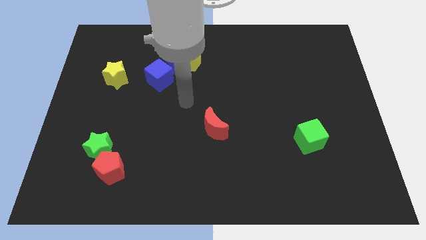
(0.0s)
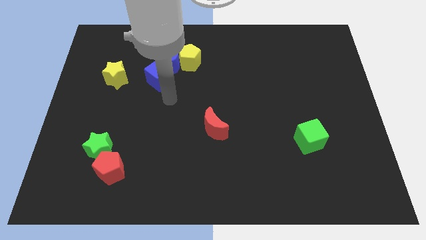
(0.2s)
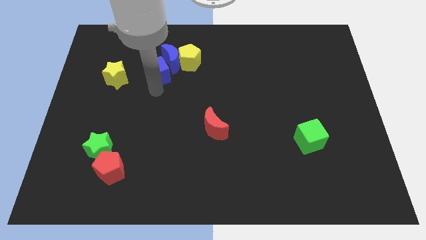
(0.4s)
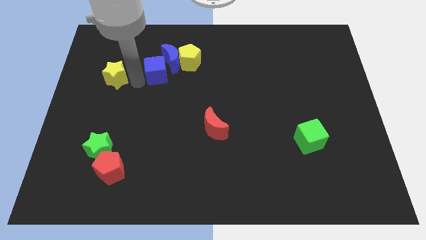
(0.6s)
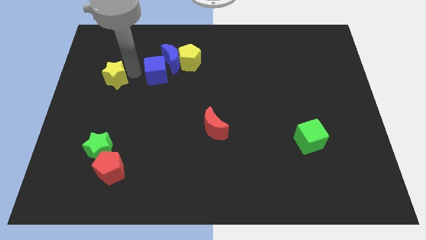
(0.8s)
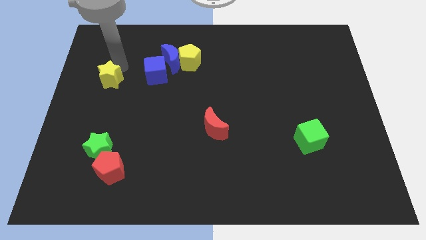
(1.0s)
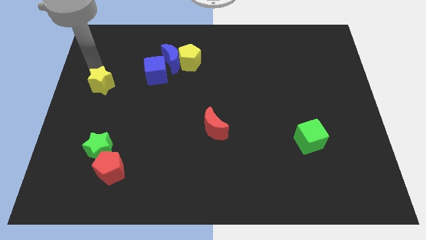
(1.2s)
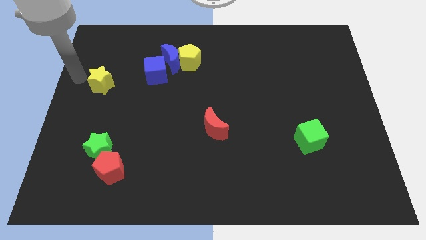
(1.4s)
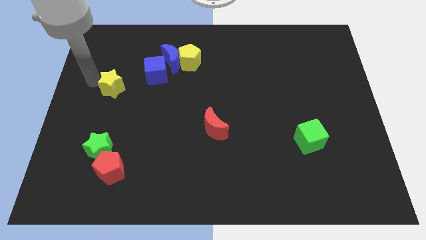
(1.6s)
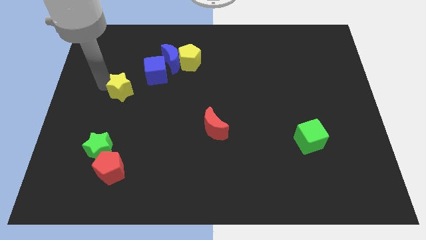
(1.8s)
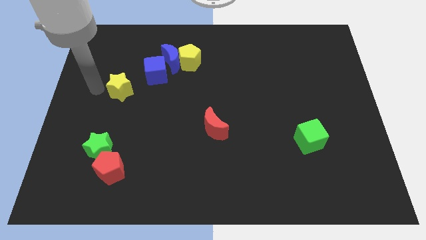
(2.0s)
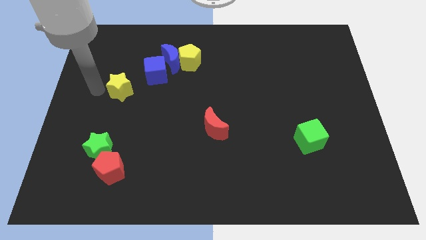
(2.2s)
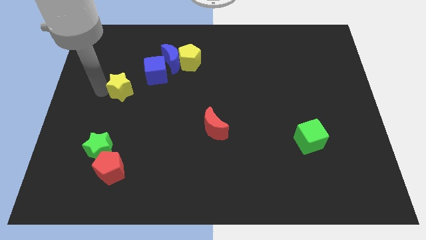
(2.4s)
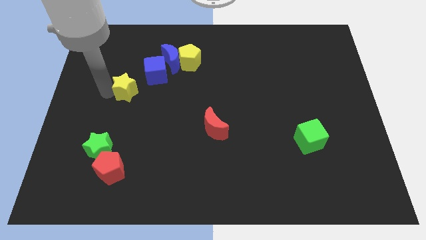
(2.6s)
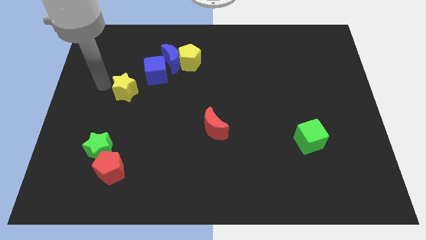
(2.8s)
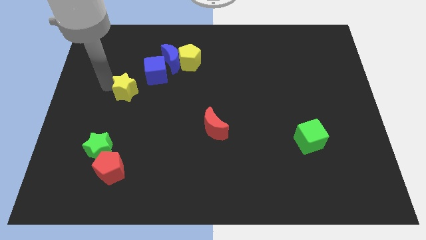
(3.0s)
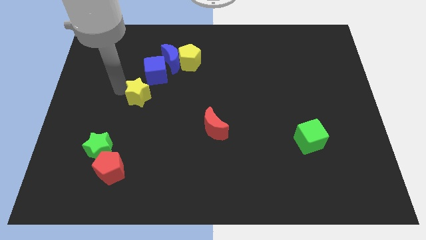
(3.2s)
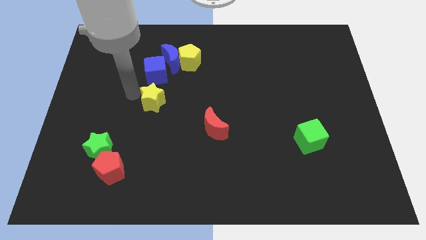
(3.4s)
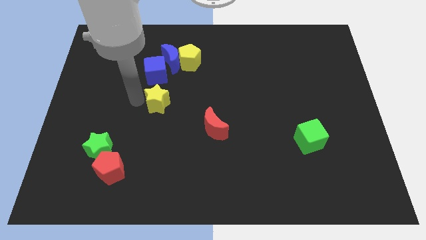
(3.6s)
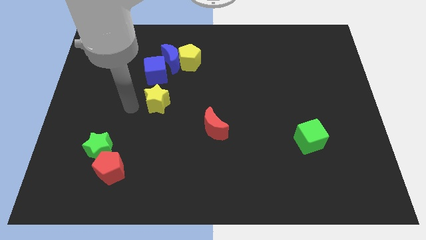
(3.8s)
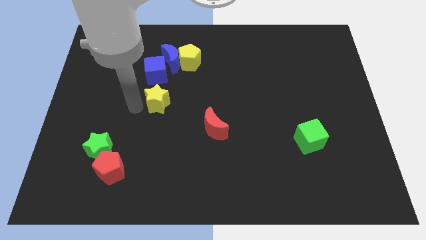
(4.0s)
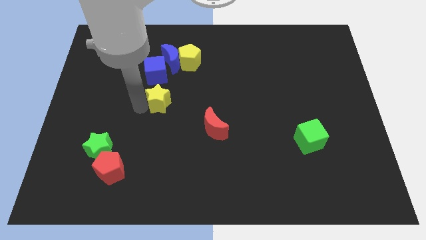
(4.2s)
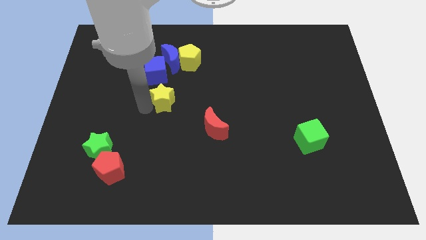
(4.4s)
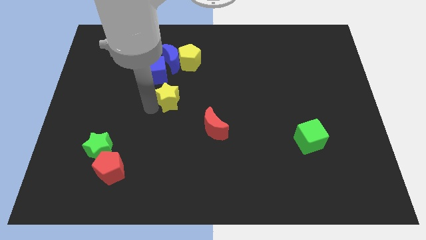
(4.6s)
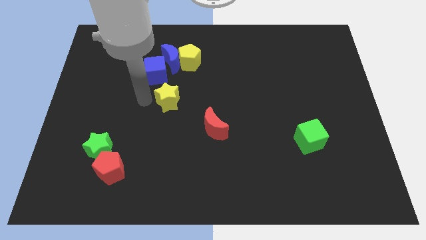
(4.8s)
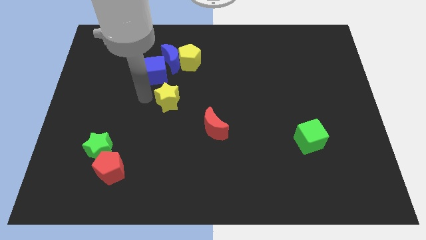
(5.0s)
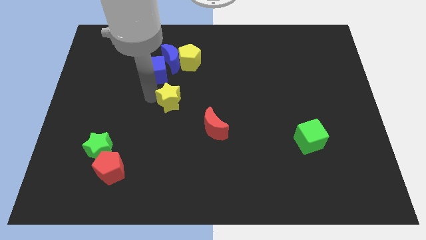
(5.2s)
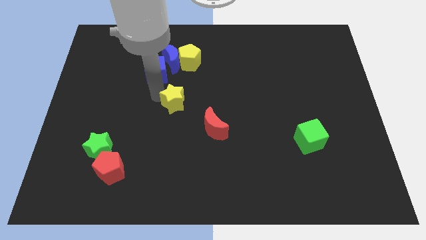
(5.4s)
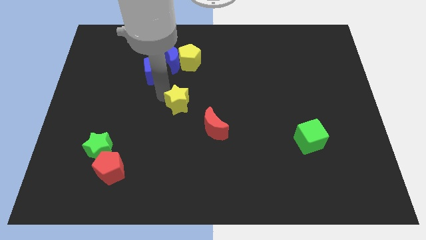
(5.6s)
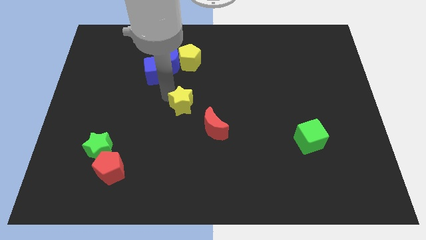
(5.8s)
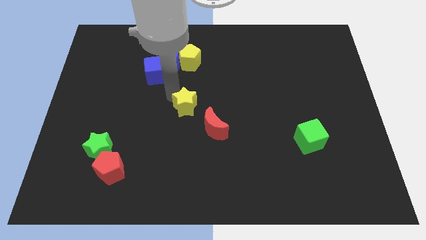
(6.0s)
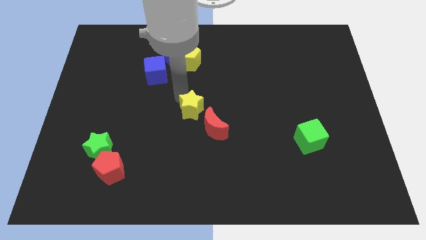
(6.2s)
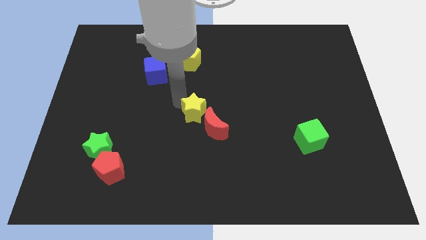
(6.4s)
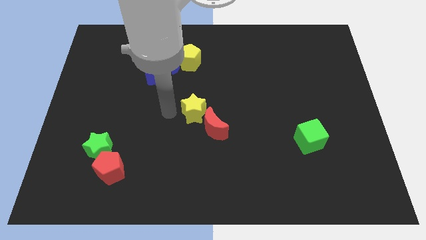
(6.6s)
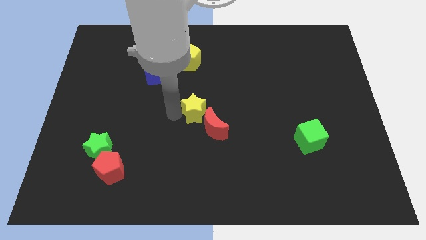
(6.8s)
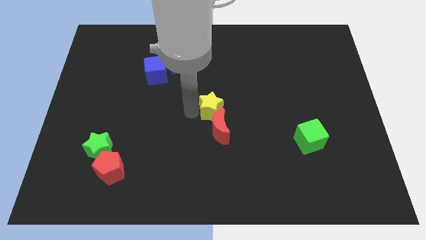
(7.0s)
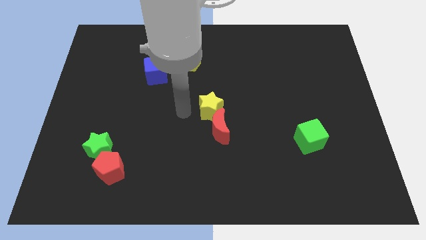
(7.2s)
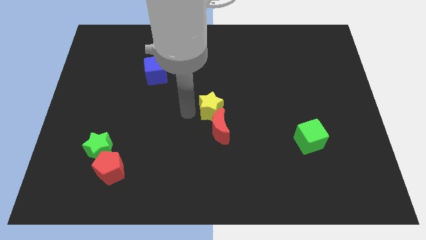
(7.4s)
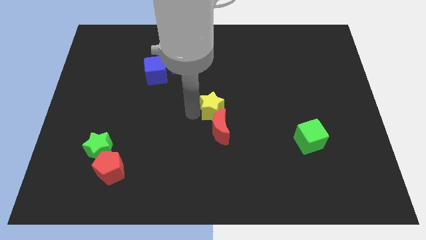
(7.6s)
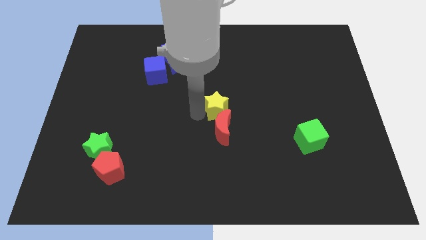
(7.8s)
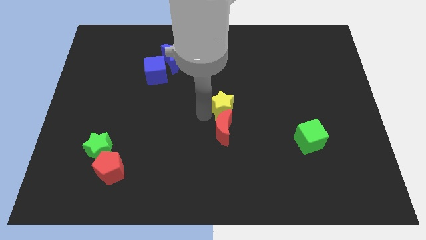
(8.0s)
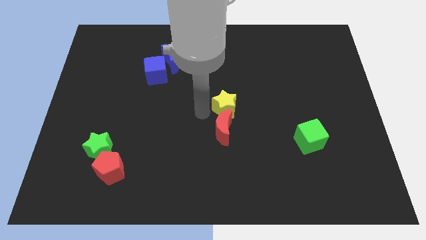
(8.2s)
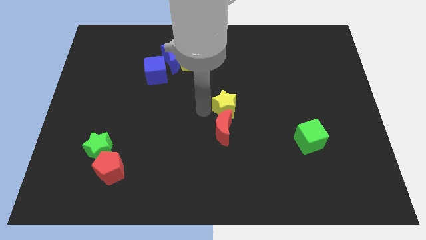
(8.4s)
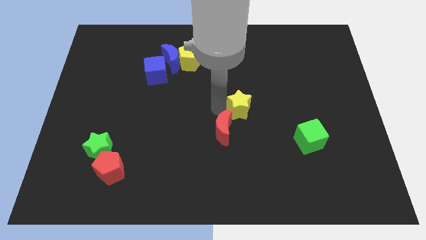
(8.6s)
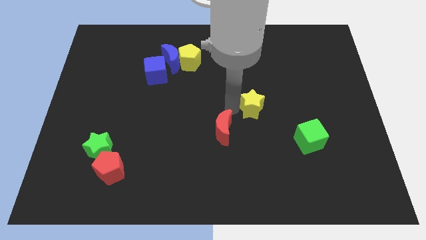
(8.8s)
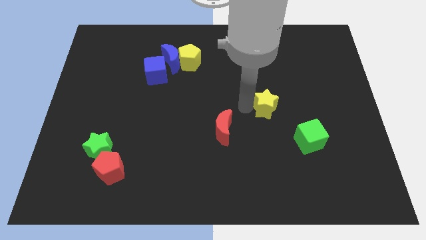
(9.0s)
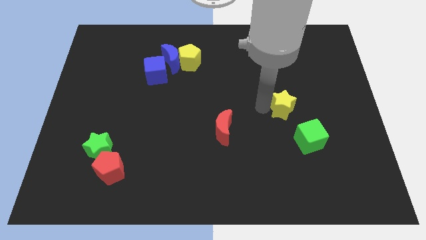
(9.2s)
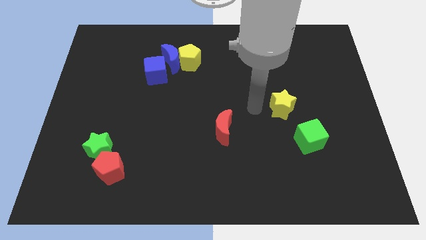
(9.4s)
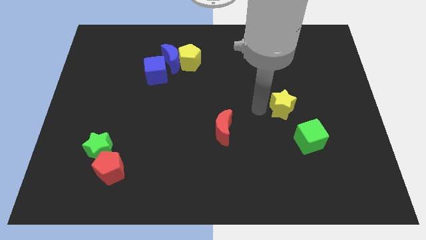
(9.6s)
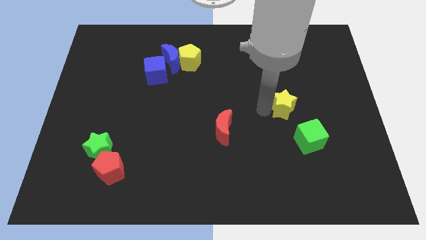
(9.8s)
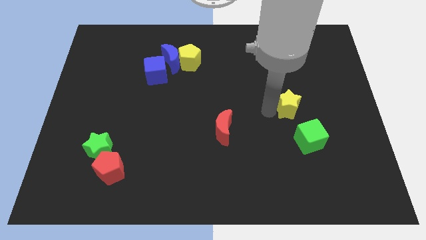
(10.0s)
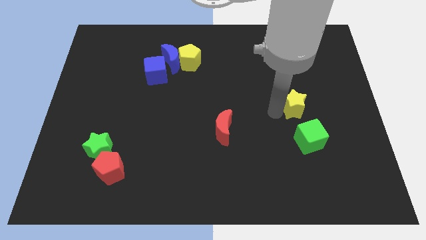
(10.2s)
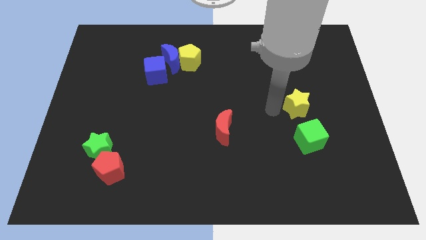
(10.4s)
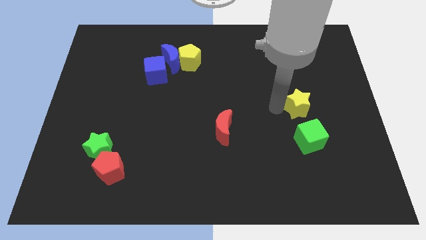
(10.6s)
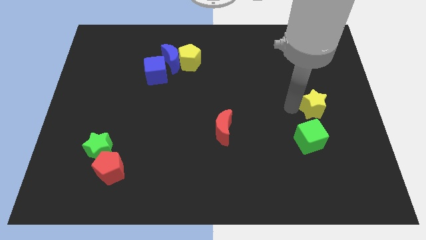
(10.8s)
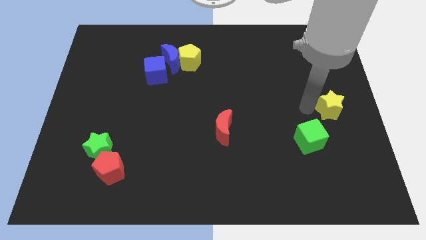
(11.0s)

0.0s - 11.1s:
push the yellow star to the center right
